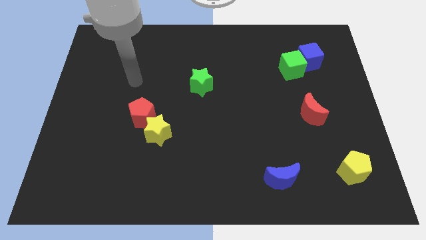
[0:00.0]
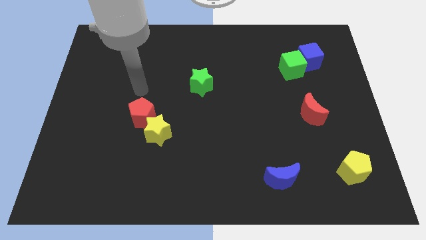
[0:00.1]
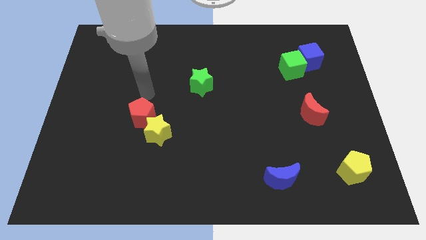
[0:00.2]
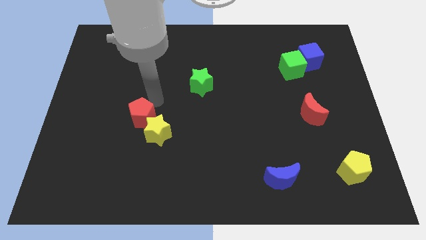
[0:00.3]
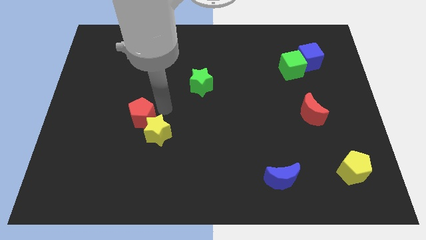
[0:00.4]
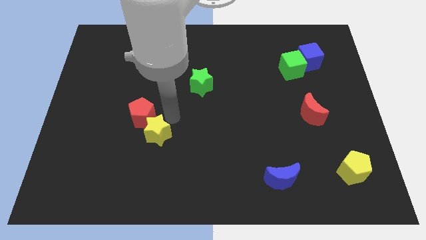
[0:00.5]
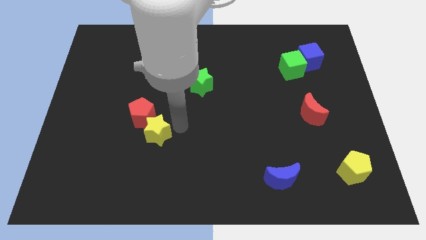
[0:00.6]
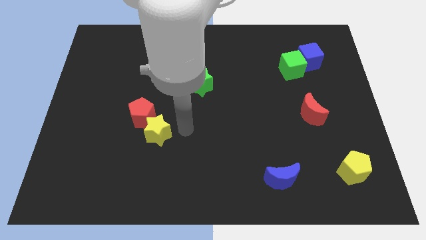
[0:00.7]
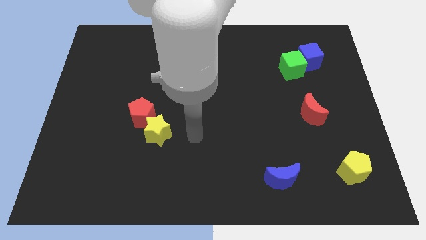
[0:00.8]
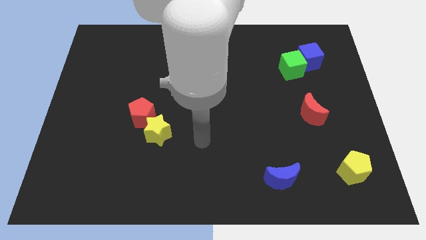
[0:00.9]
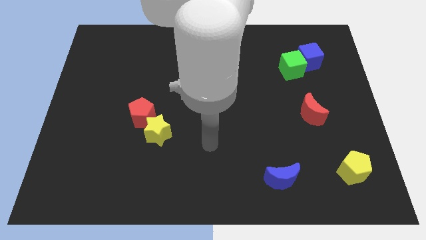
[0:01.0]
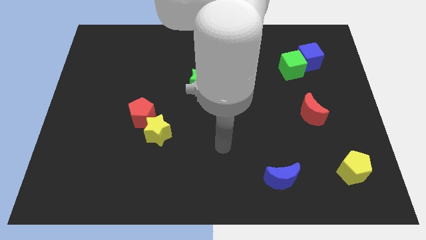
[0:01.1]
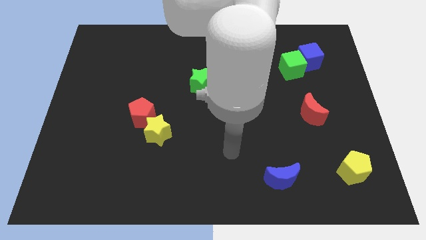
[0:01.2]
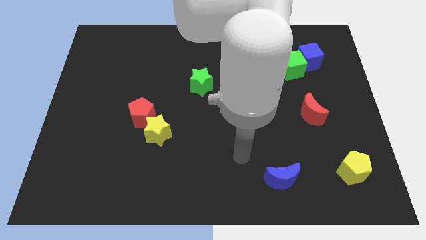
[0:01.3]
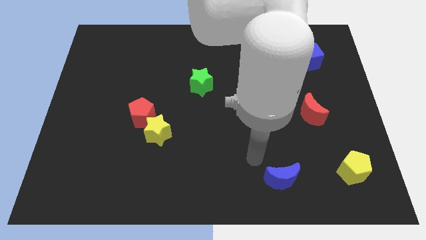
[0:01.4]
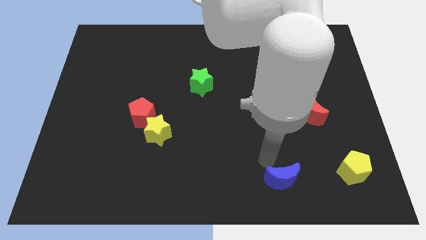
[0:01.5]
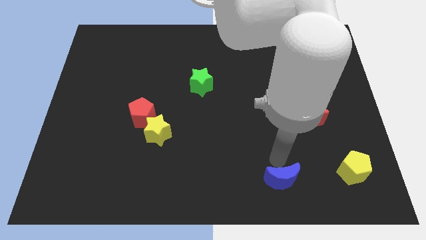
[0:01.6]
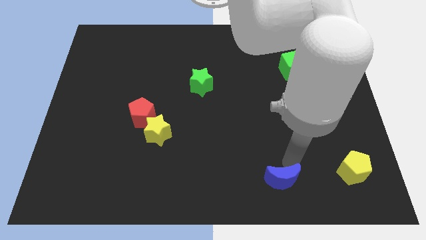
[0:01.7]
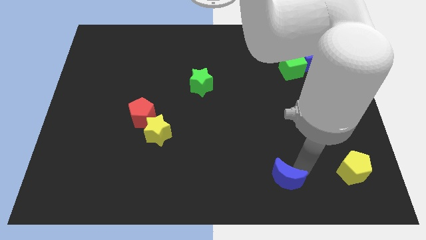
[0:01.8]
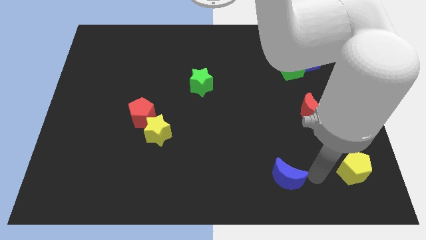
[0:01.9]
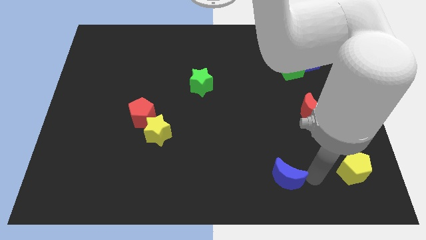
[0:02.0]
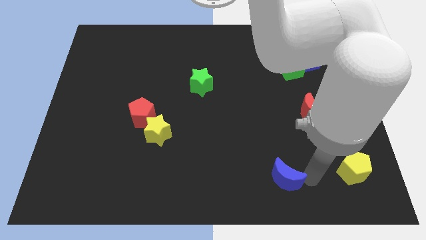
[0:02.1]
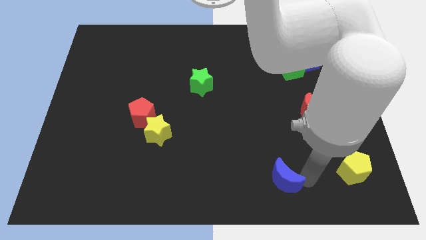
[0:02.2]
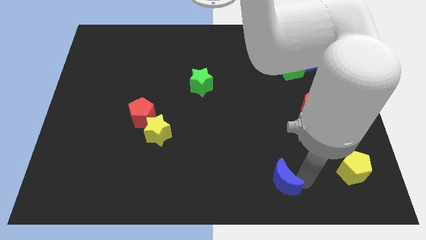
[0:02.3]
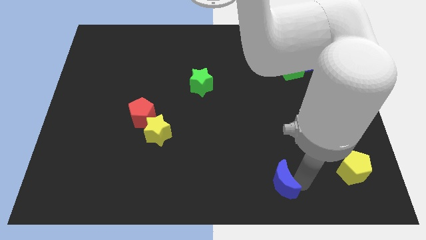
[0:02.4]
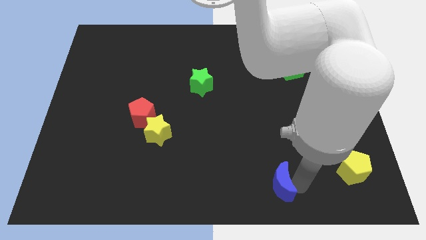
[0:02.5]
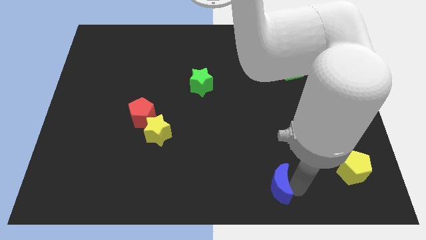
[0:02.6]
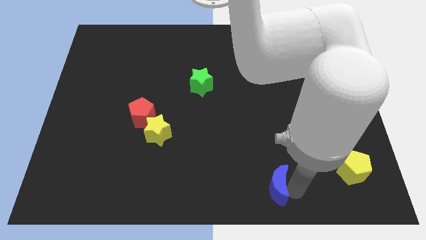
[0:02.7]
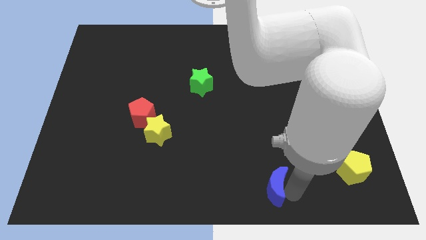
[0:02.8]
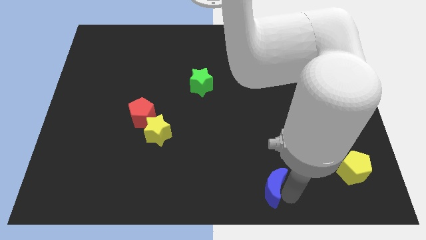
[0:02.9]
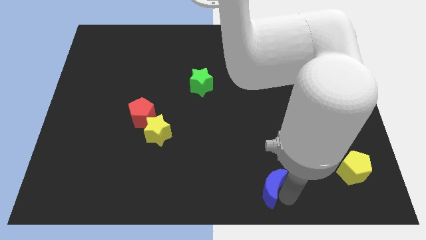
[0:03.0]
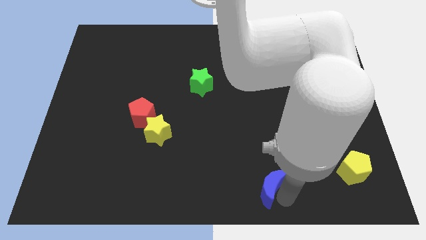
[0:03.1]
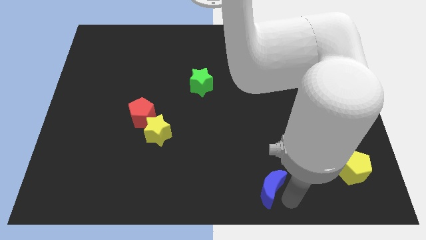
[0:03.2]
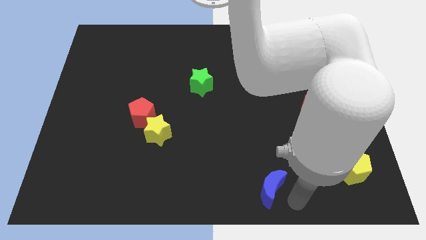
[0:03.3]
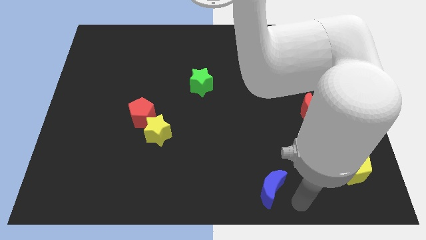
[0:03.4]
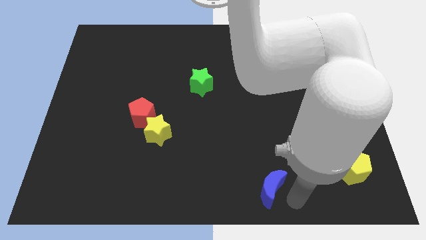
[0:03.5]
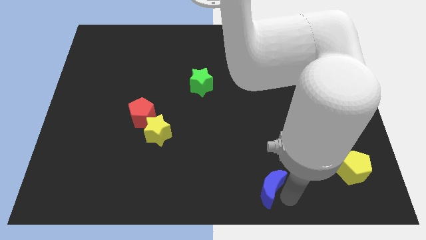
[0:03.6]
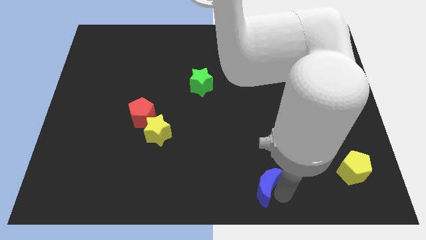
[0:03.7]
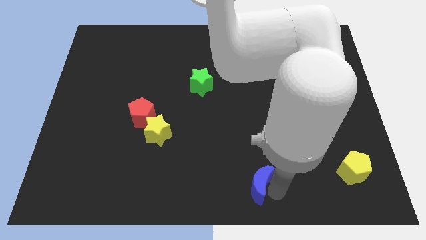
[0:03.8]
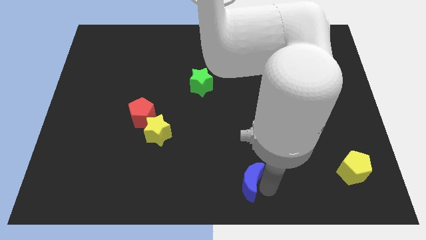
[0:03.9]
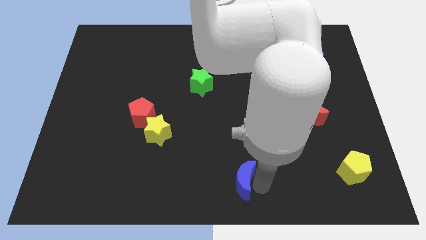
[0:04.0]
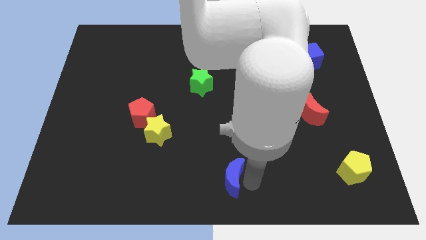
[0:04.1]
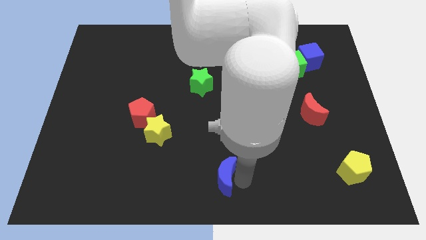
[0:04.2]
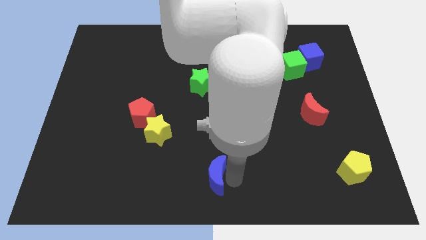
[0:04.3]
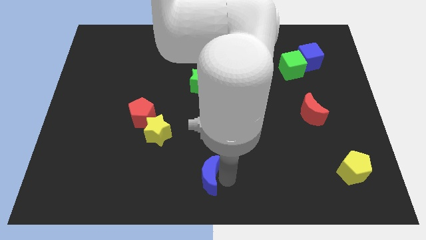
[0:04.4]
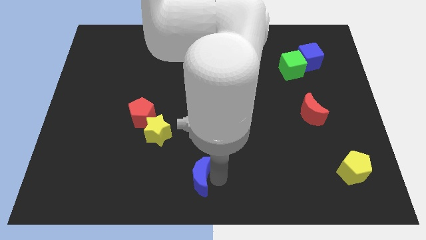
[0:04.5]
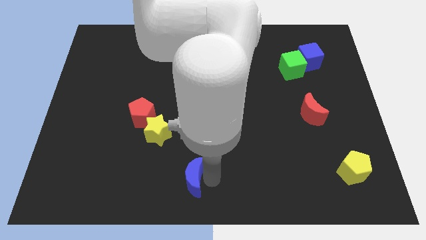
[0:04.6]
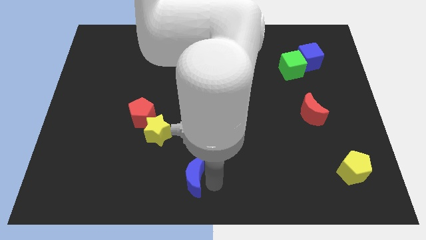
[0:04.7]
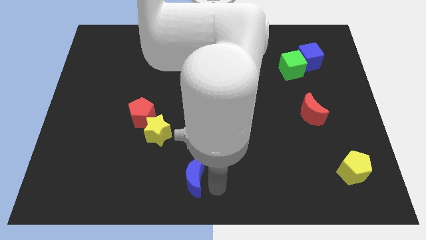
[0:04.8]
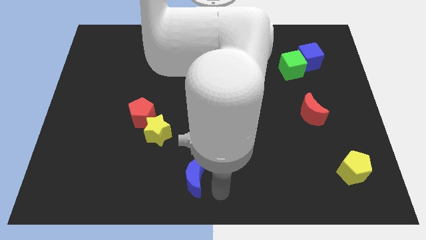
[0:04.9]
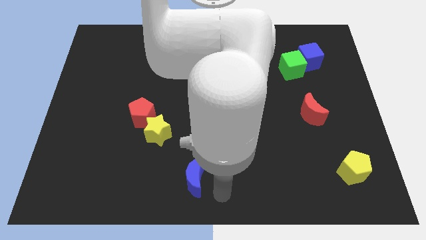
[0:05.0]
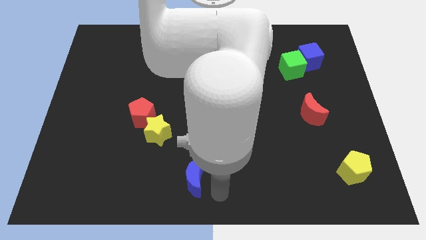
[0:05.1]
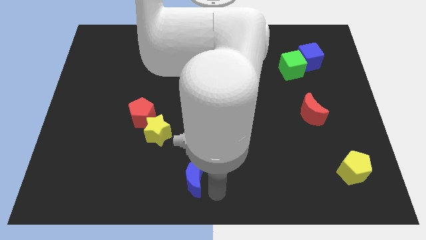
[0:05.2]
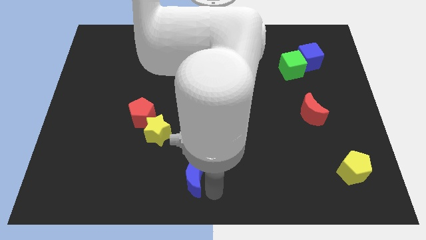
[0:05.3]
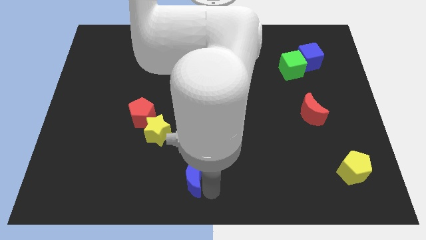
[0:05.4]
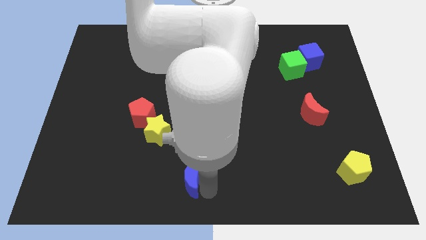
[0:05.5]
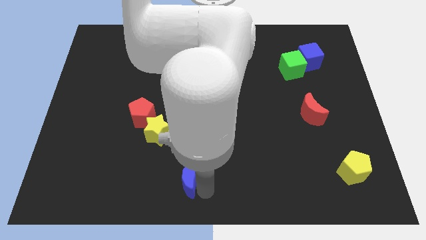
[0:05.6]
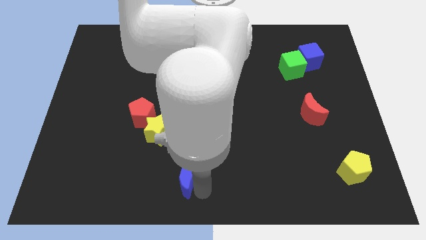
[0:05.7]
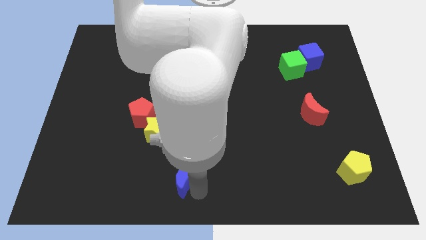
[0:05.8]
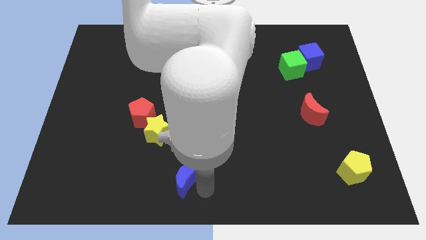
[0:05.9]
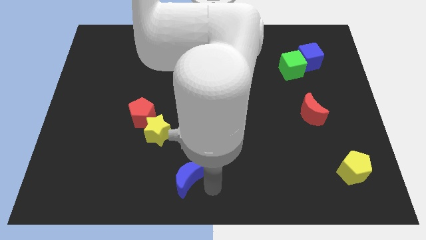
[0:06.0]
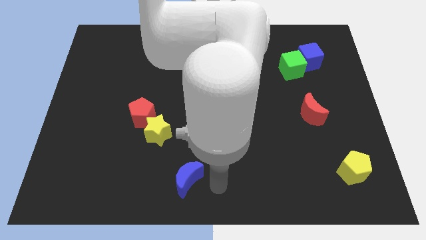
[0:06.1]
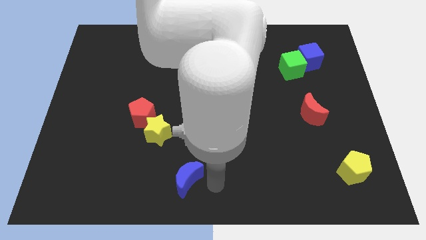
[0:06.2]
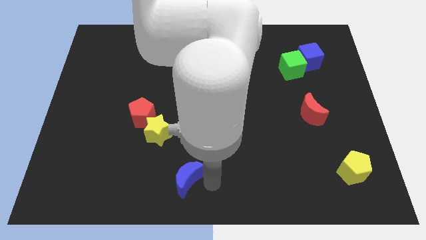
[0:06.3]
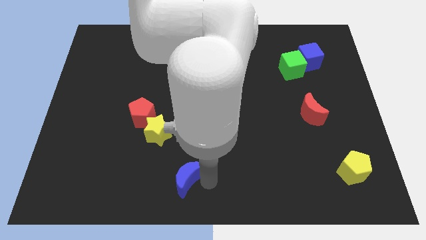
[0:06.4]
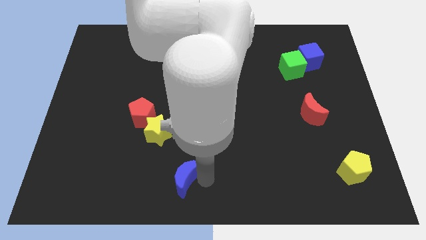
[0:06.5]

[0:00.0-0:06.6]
move the blue moon left

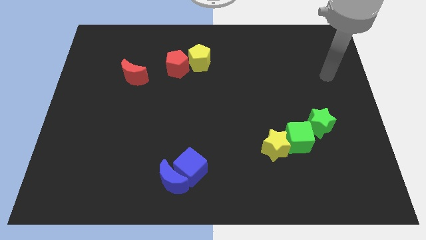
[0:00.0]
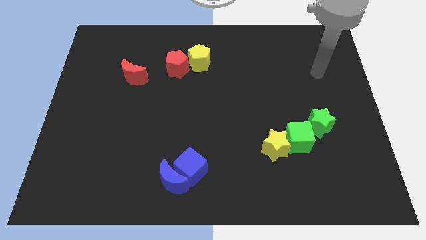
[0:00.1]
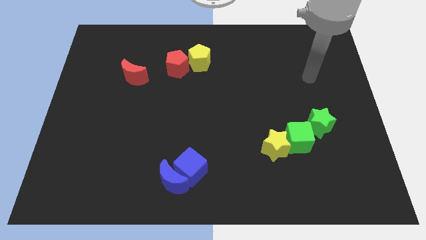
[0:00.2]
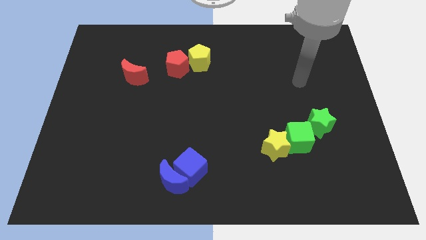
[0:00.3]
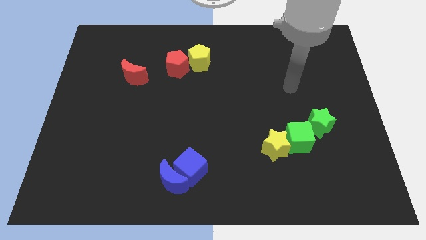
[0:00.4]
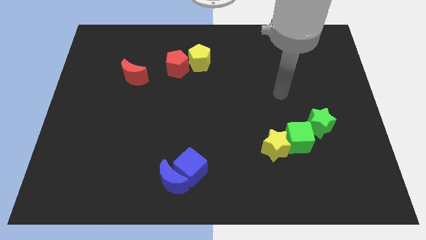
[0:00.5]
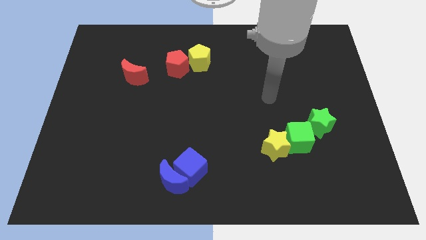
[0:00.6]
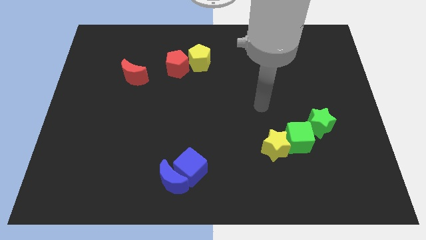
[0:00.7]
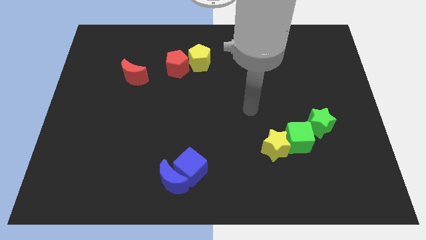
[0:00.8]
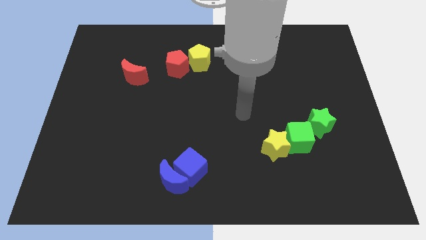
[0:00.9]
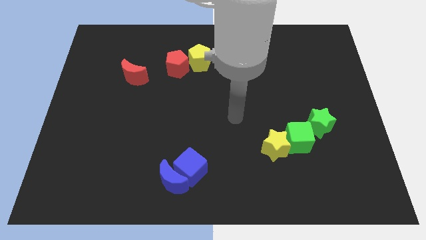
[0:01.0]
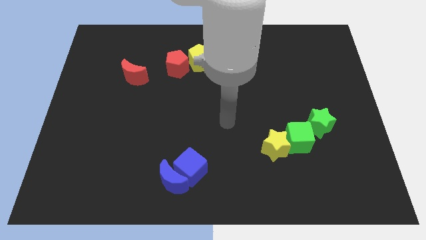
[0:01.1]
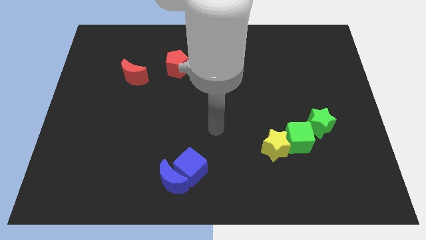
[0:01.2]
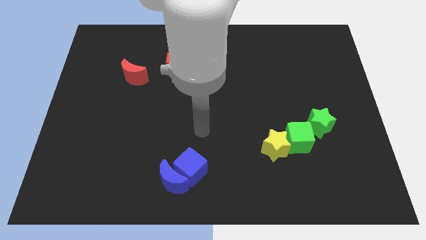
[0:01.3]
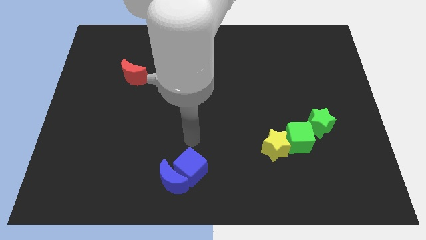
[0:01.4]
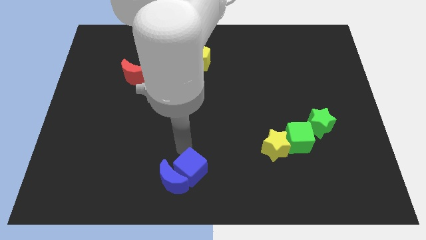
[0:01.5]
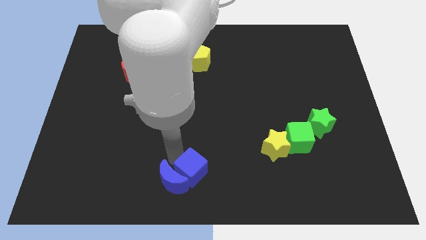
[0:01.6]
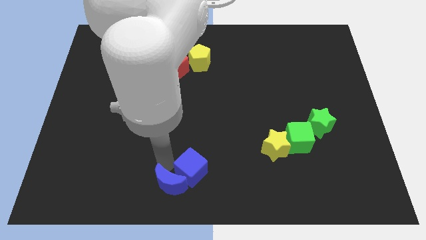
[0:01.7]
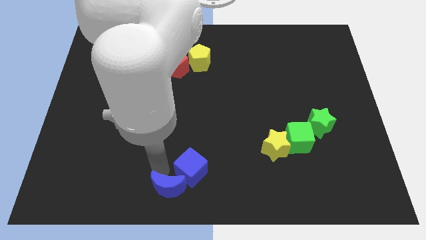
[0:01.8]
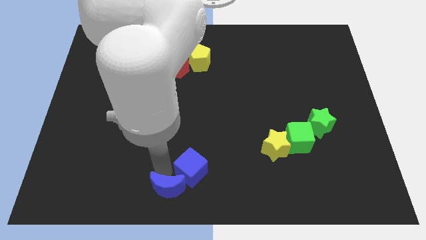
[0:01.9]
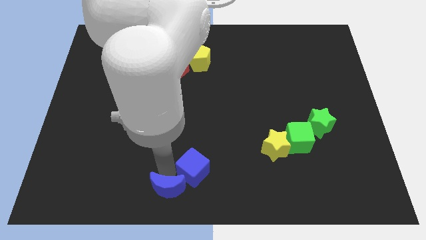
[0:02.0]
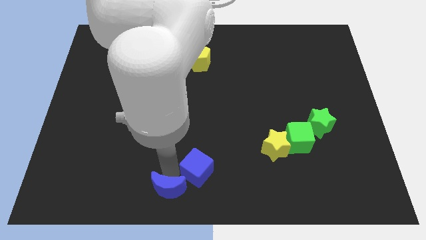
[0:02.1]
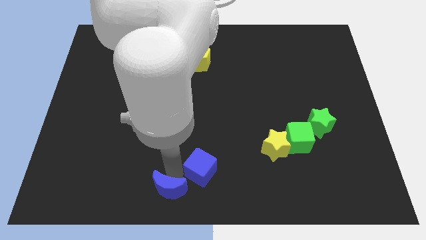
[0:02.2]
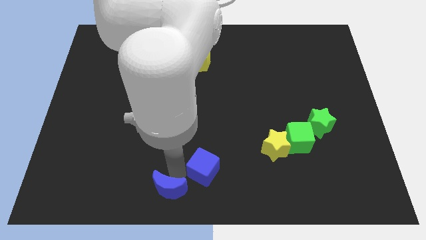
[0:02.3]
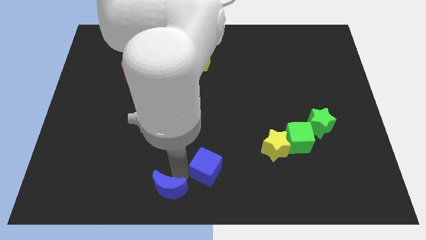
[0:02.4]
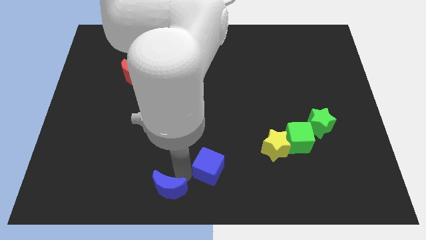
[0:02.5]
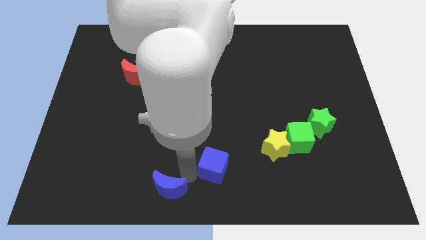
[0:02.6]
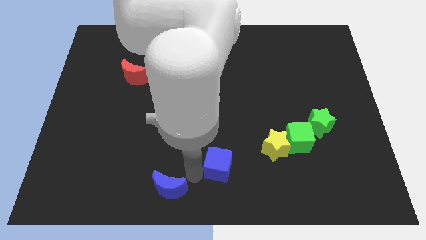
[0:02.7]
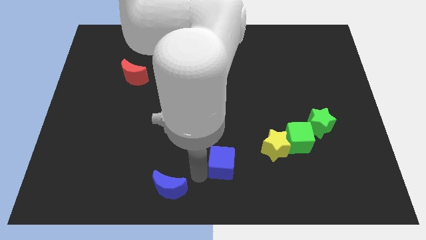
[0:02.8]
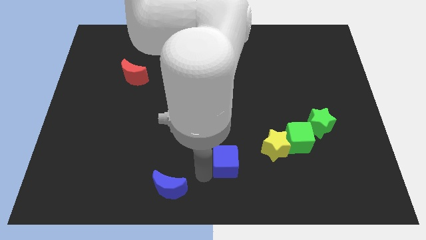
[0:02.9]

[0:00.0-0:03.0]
move the blue cube to the right slightly
